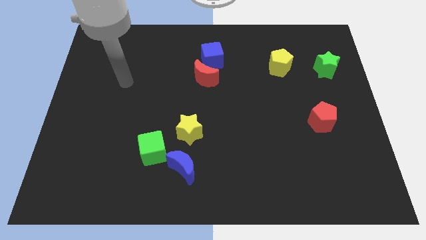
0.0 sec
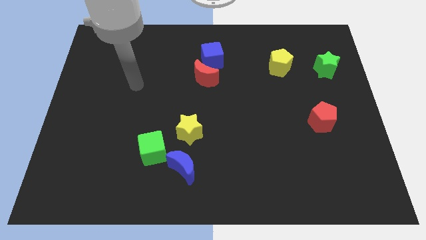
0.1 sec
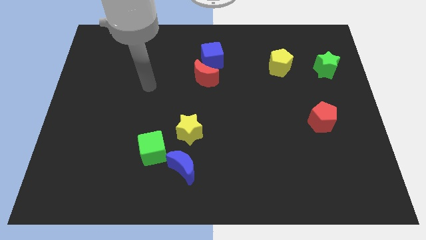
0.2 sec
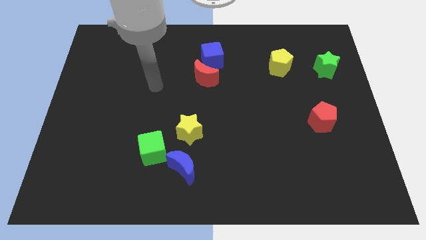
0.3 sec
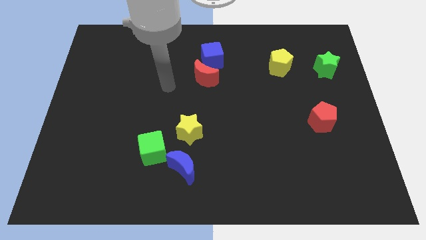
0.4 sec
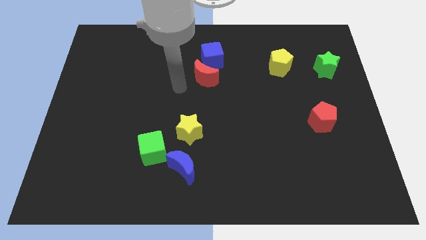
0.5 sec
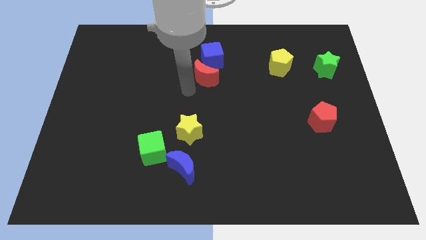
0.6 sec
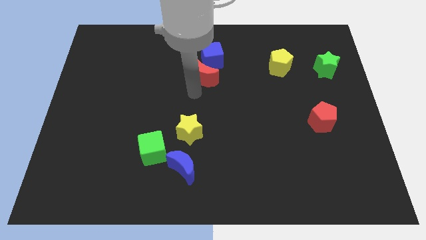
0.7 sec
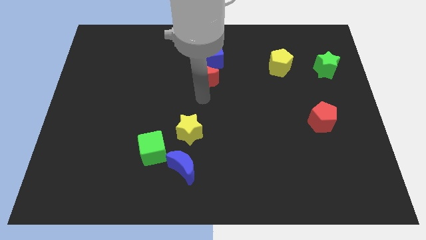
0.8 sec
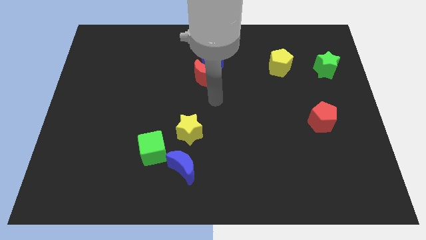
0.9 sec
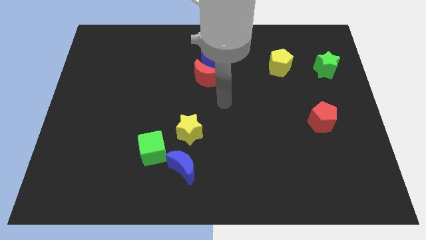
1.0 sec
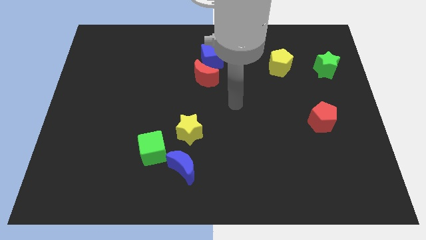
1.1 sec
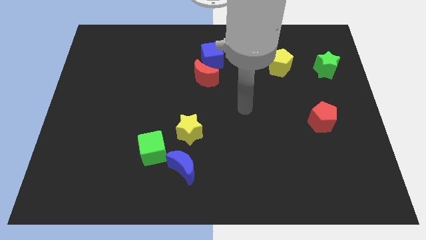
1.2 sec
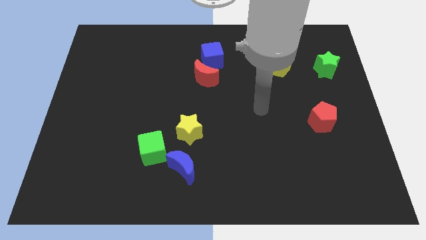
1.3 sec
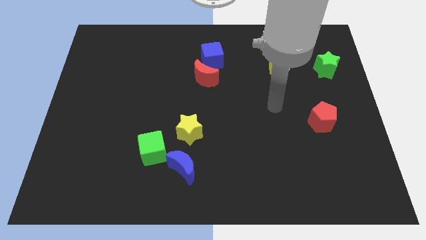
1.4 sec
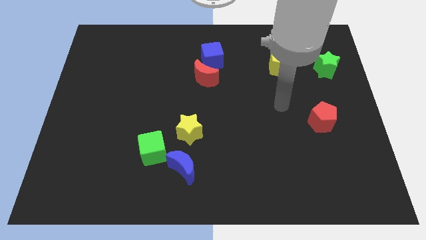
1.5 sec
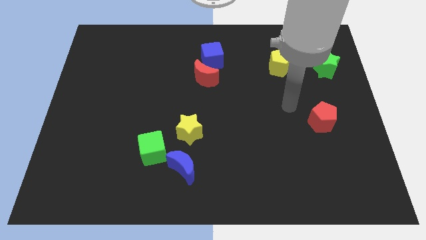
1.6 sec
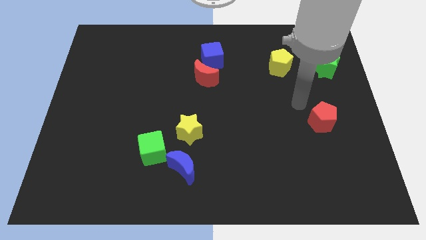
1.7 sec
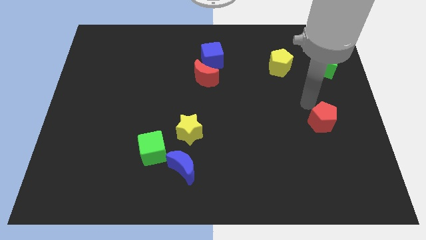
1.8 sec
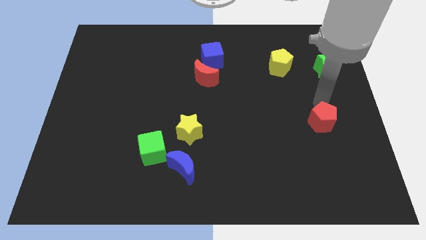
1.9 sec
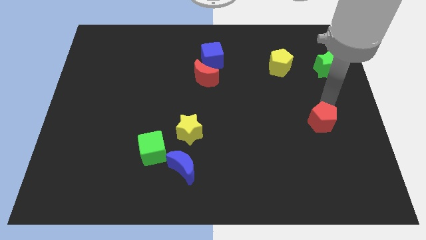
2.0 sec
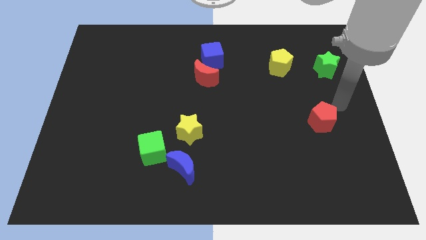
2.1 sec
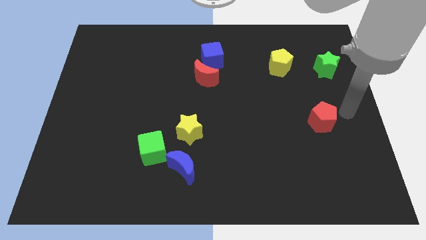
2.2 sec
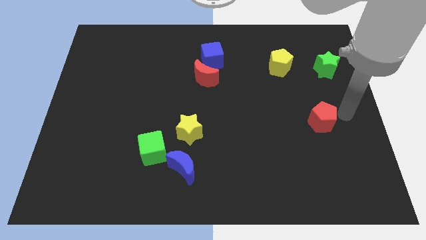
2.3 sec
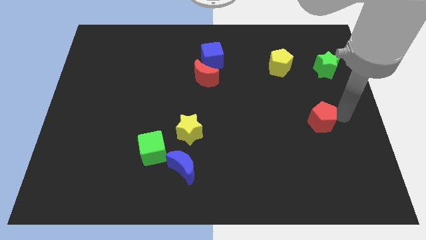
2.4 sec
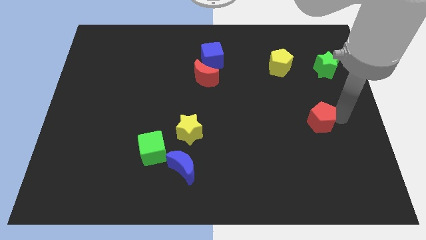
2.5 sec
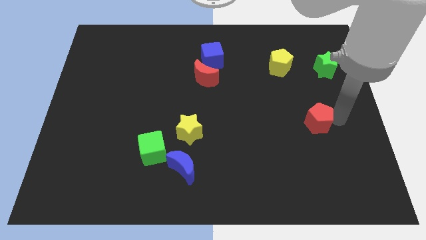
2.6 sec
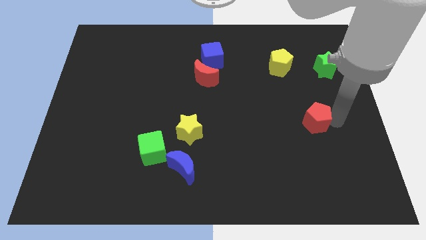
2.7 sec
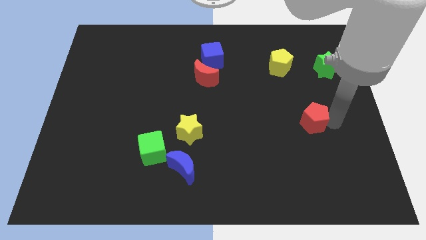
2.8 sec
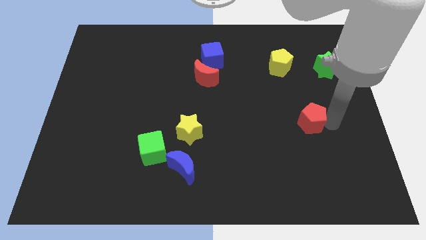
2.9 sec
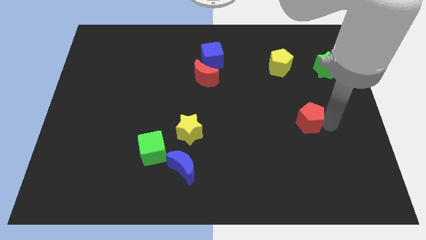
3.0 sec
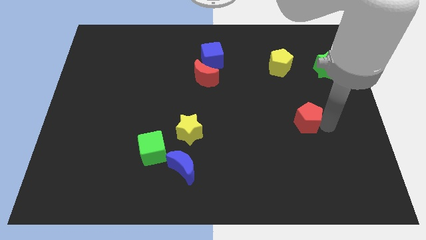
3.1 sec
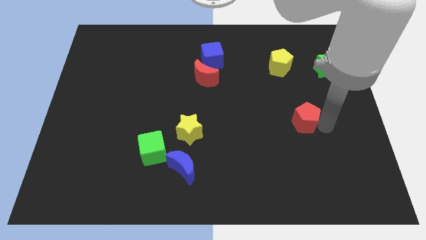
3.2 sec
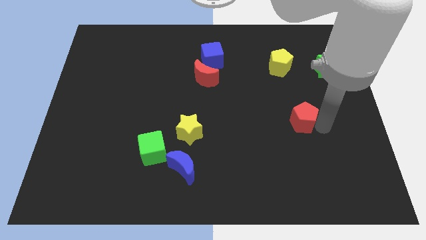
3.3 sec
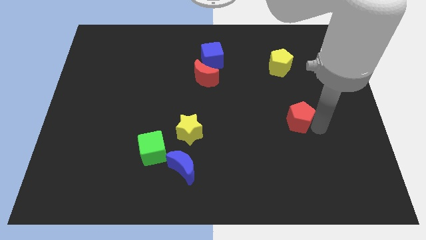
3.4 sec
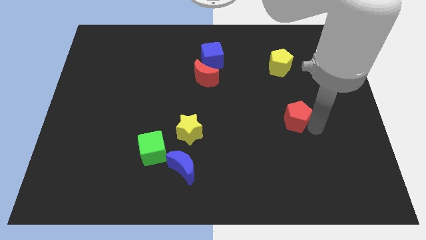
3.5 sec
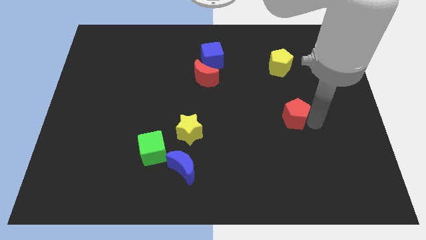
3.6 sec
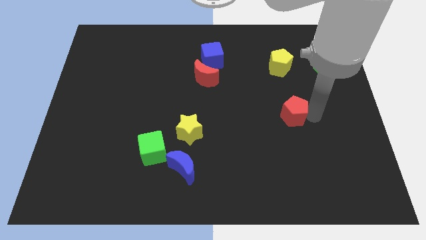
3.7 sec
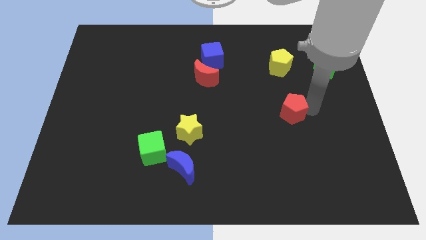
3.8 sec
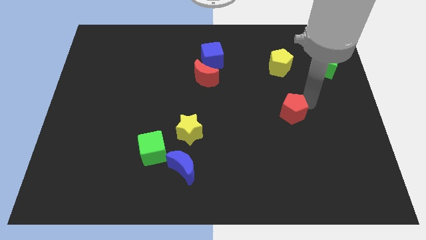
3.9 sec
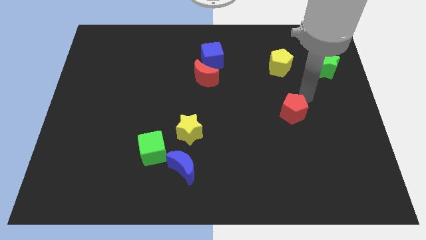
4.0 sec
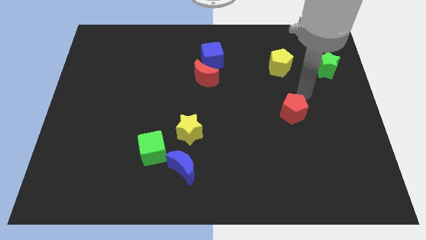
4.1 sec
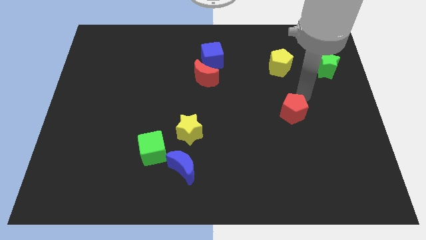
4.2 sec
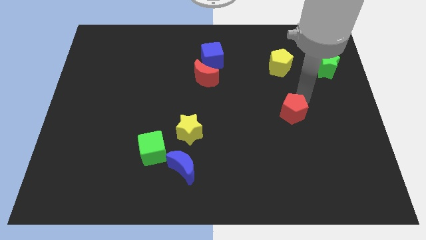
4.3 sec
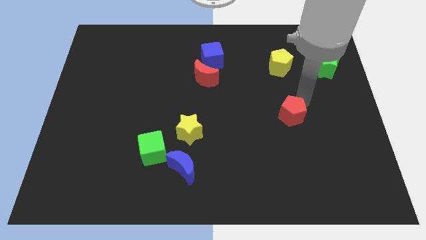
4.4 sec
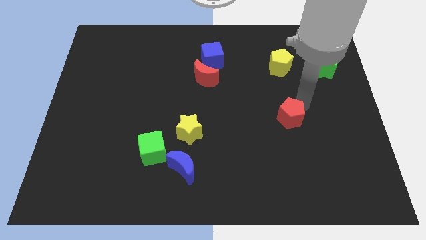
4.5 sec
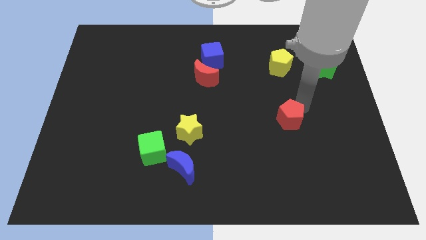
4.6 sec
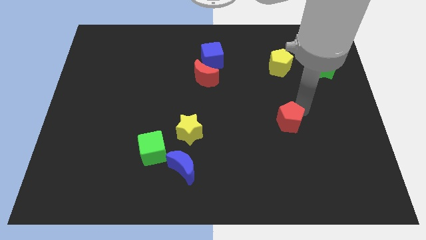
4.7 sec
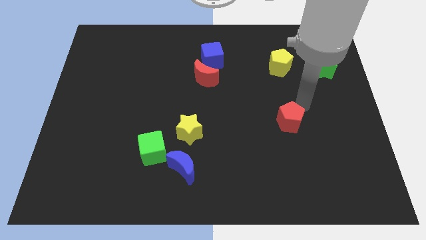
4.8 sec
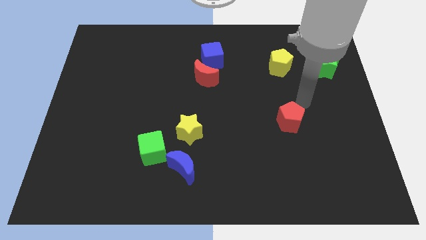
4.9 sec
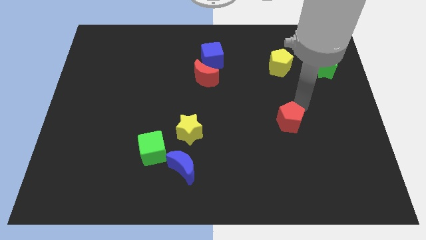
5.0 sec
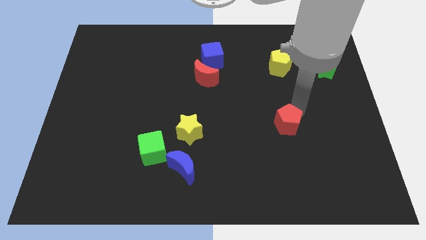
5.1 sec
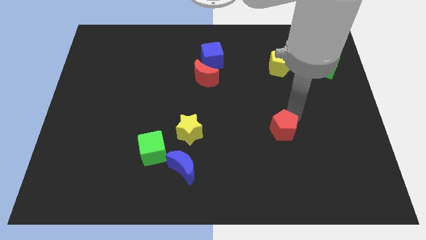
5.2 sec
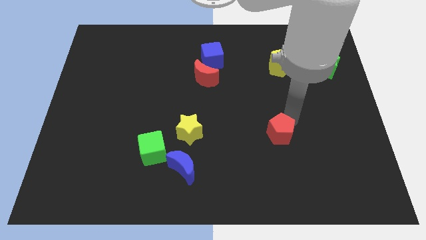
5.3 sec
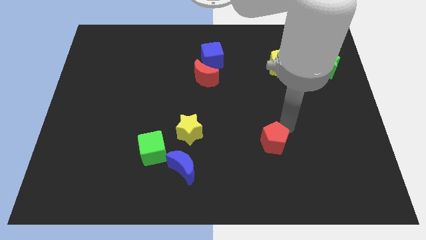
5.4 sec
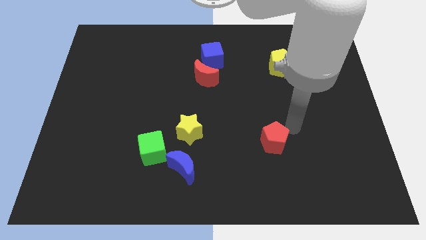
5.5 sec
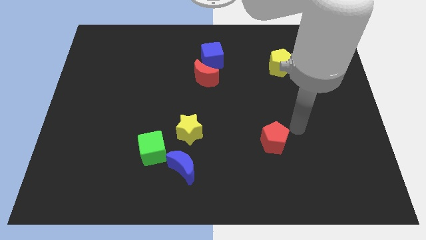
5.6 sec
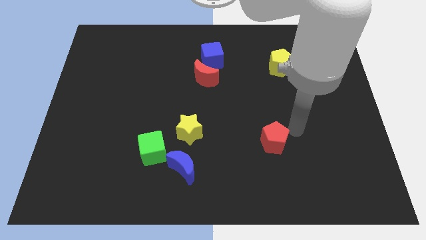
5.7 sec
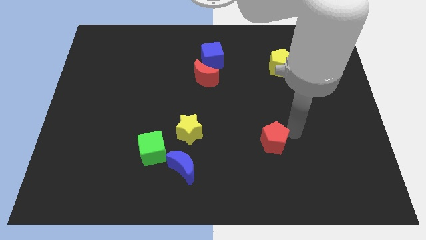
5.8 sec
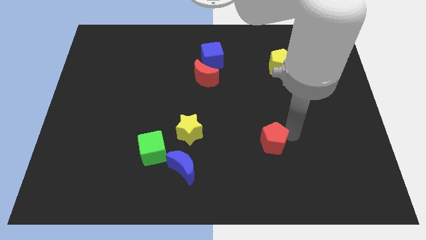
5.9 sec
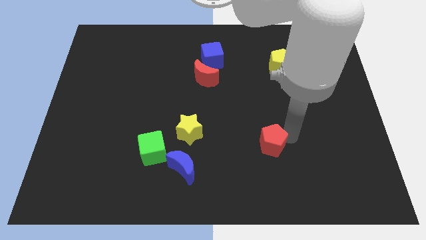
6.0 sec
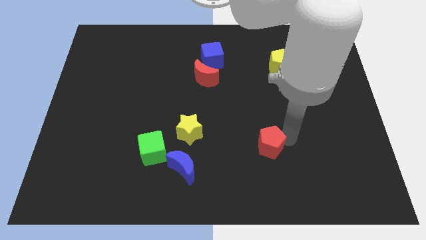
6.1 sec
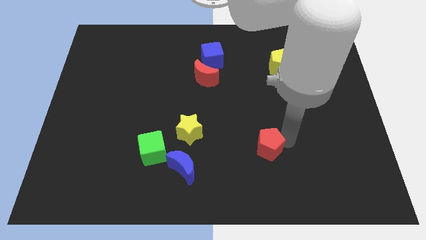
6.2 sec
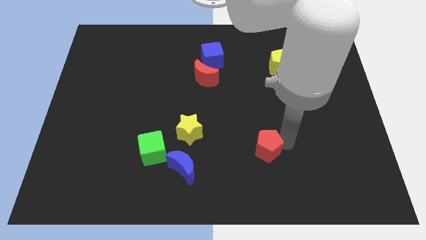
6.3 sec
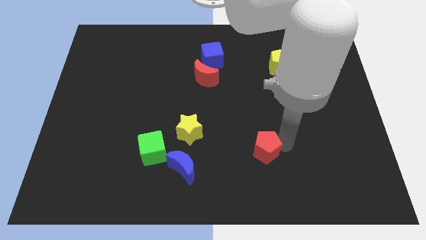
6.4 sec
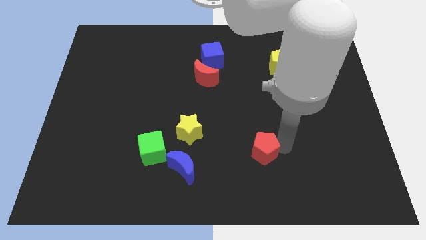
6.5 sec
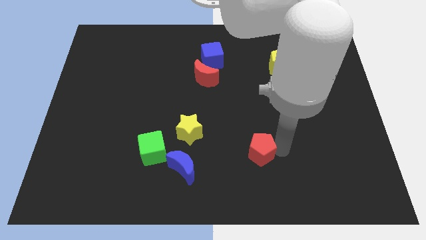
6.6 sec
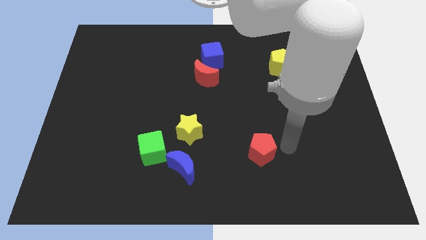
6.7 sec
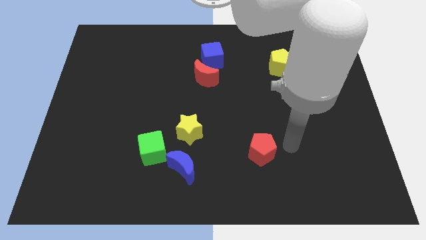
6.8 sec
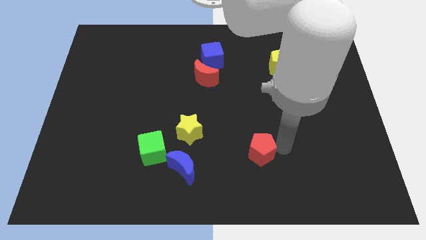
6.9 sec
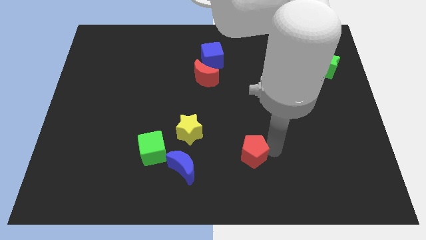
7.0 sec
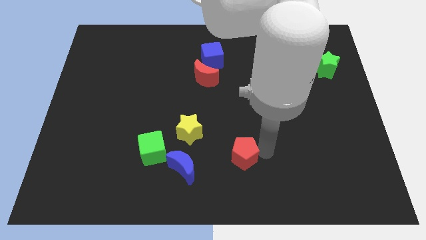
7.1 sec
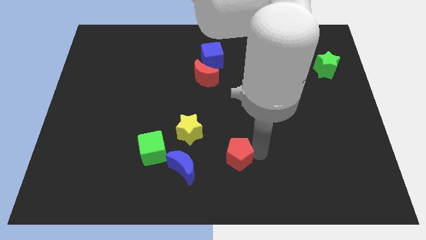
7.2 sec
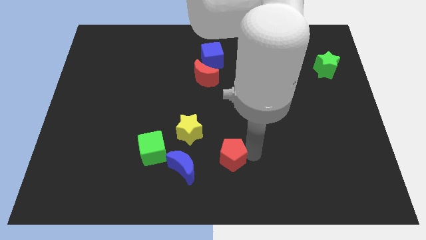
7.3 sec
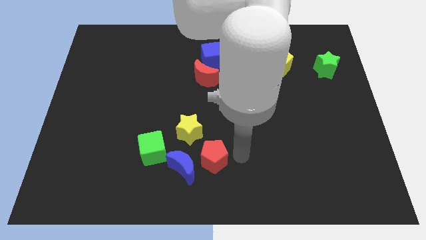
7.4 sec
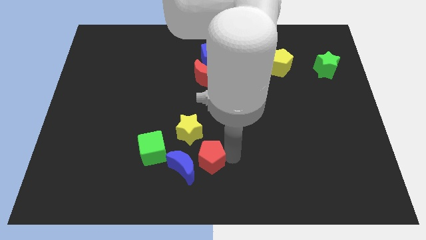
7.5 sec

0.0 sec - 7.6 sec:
slide the red pentagon close to the blue moon
